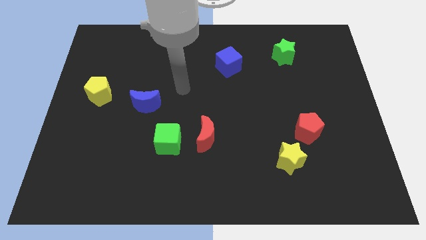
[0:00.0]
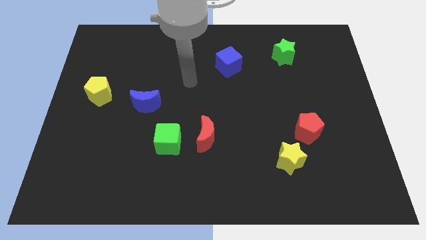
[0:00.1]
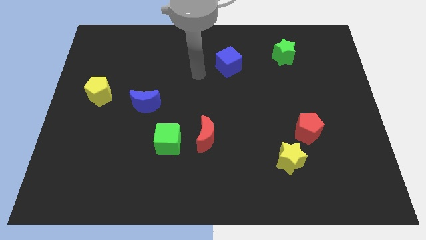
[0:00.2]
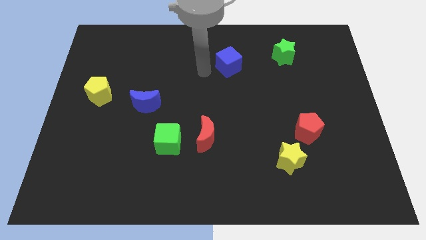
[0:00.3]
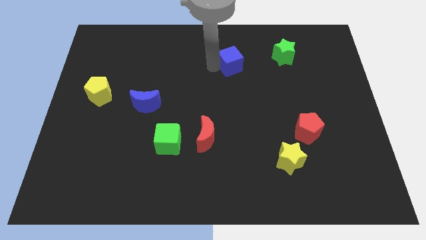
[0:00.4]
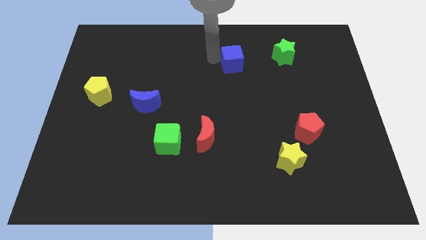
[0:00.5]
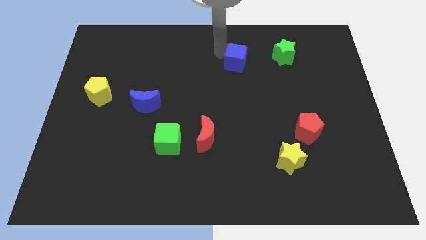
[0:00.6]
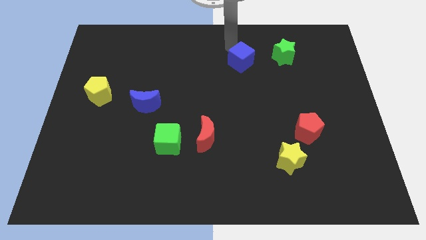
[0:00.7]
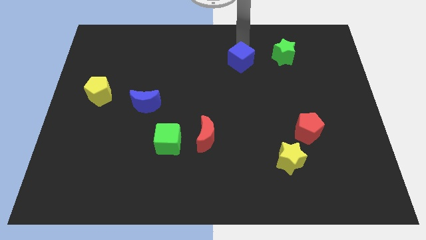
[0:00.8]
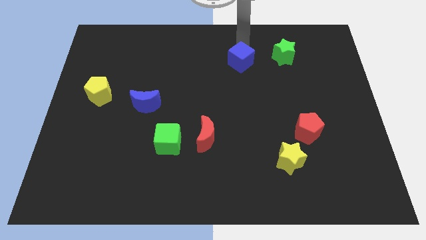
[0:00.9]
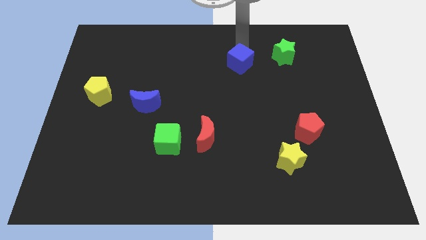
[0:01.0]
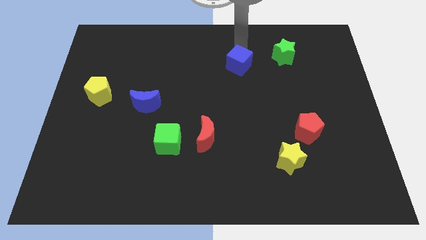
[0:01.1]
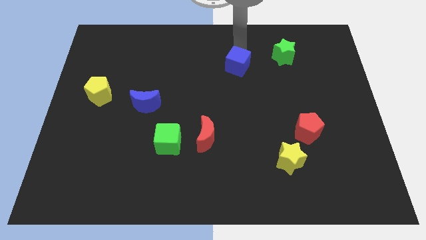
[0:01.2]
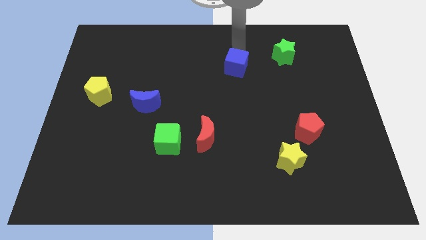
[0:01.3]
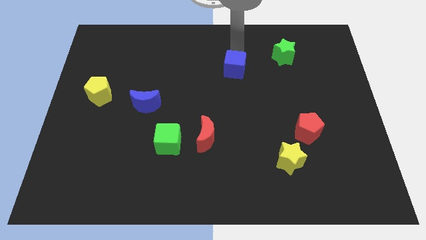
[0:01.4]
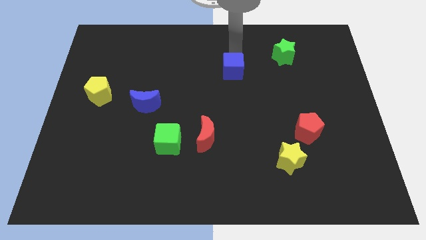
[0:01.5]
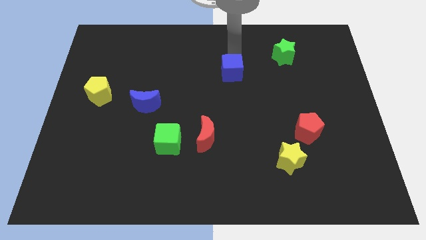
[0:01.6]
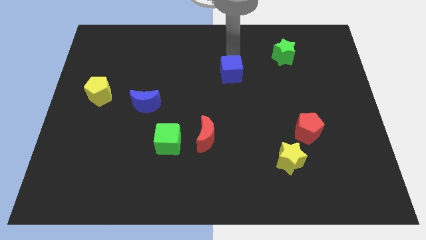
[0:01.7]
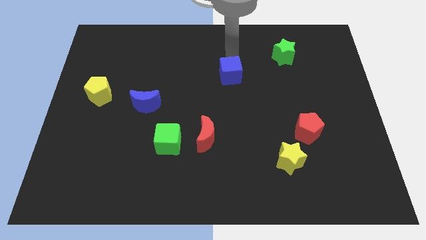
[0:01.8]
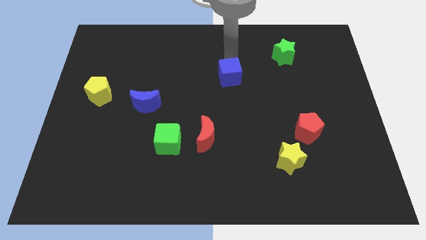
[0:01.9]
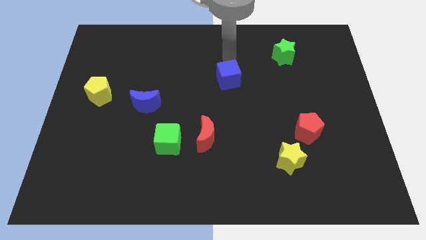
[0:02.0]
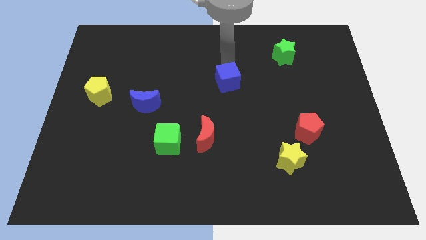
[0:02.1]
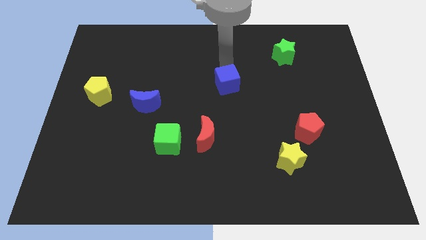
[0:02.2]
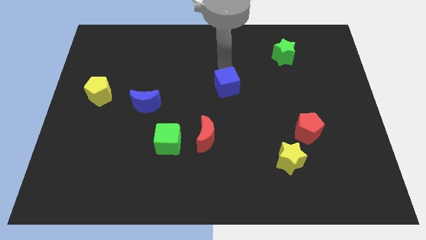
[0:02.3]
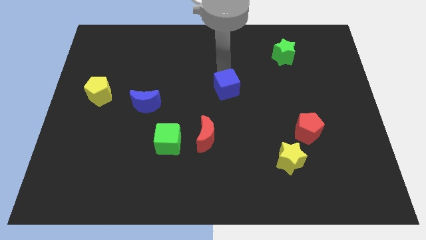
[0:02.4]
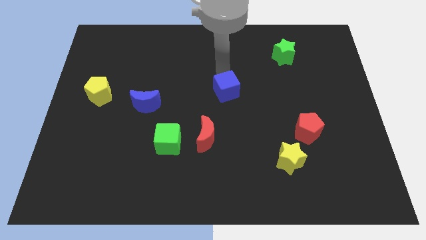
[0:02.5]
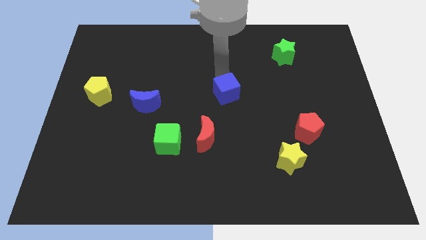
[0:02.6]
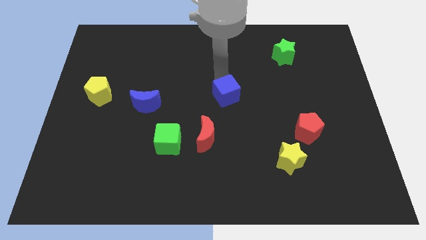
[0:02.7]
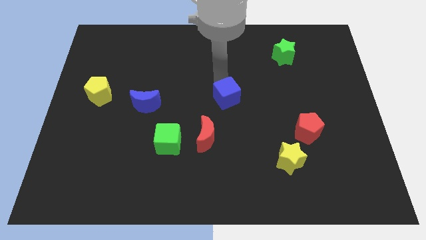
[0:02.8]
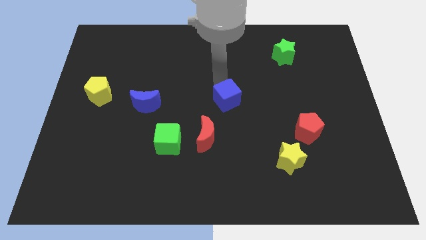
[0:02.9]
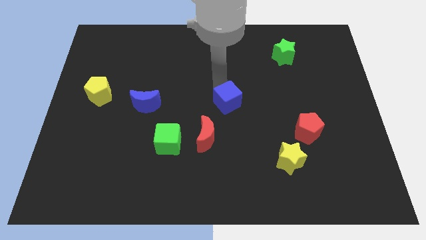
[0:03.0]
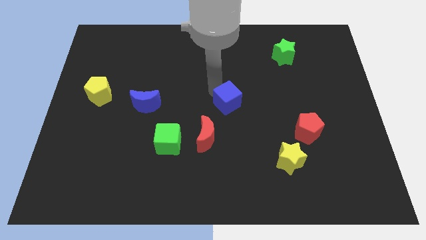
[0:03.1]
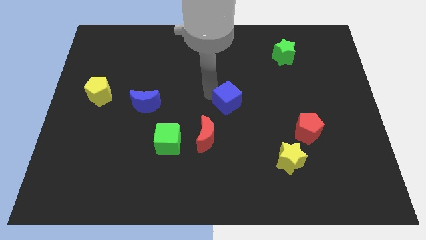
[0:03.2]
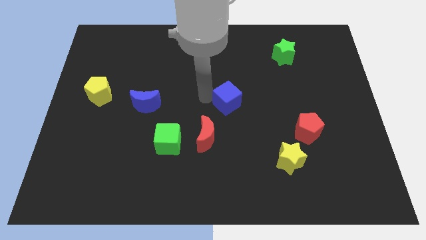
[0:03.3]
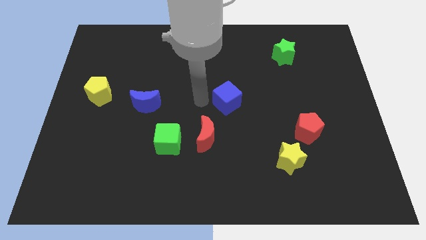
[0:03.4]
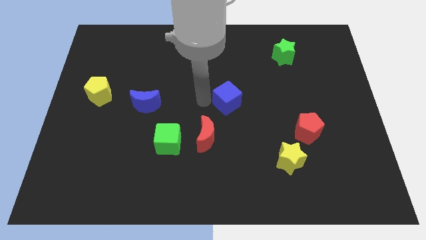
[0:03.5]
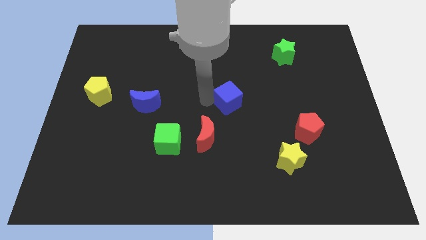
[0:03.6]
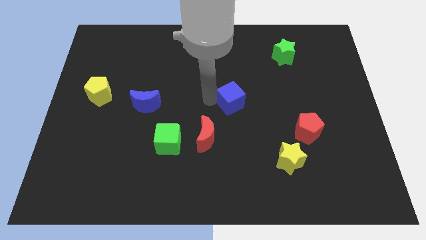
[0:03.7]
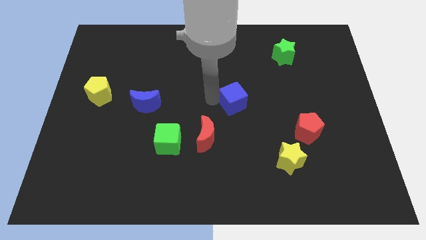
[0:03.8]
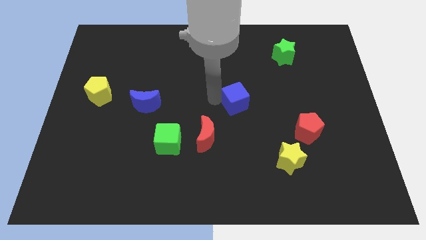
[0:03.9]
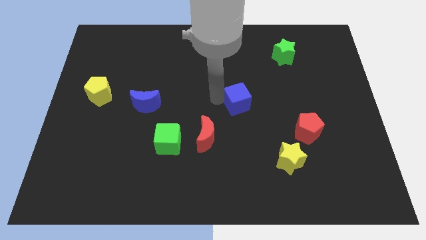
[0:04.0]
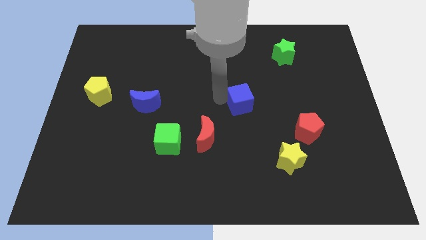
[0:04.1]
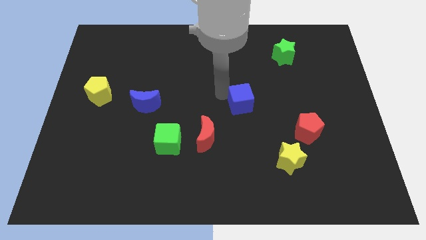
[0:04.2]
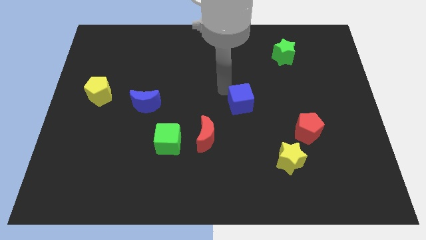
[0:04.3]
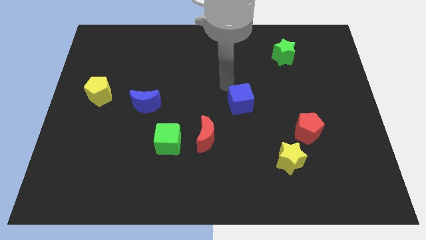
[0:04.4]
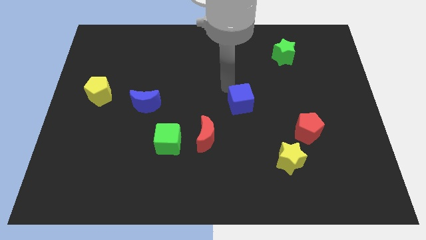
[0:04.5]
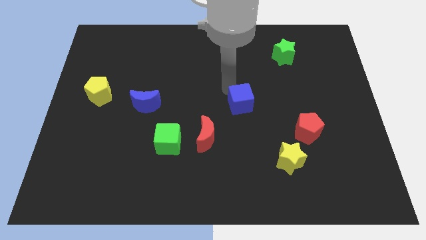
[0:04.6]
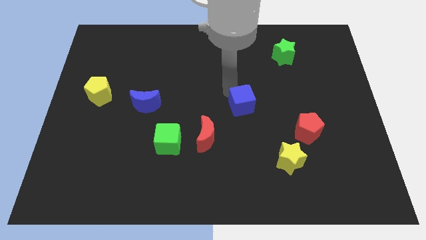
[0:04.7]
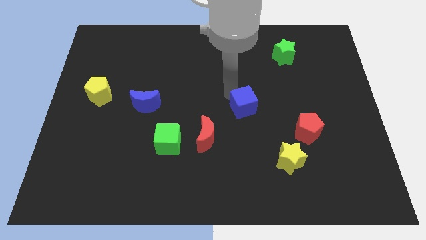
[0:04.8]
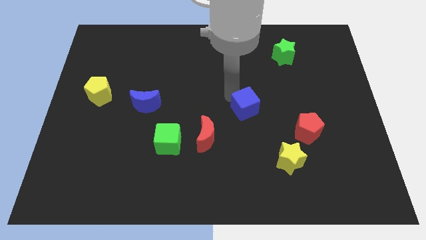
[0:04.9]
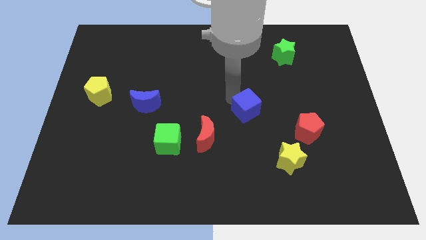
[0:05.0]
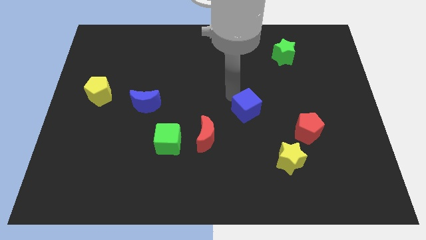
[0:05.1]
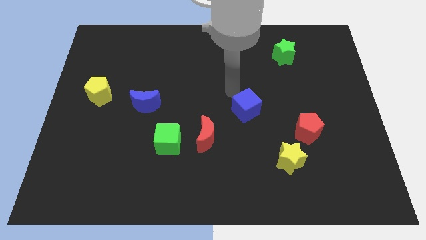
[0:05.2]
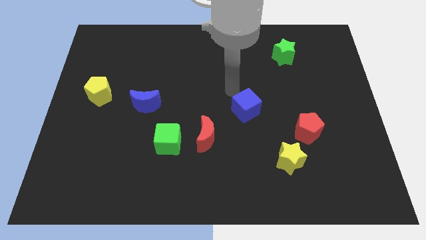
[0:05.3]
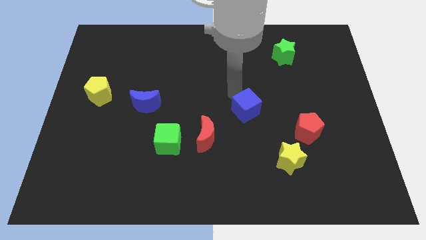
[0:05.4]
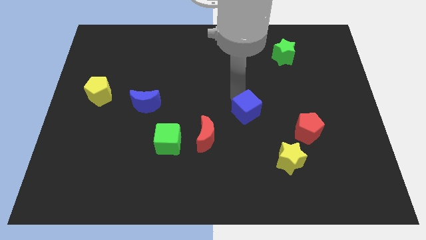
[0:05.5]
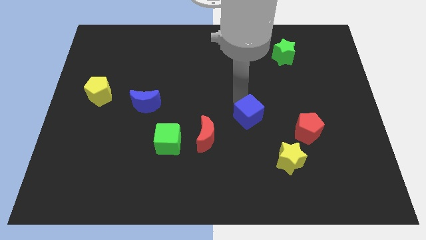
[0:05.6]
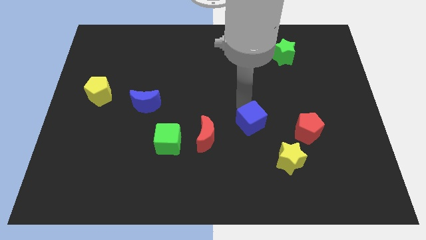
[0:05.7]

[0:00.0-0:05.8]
slide the blue cube diagonally up and to the left of the yellow star

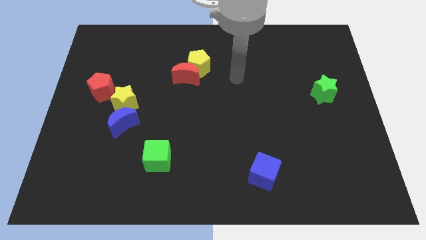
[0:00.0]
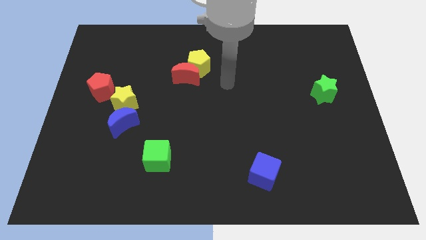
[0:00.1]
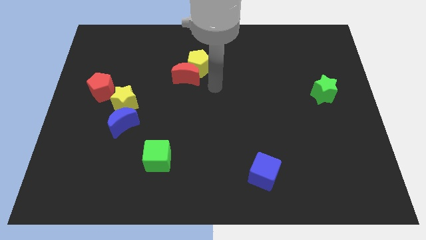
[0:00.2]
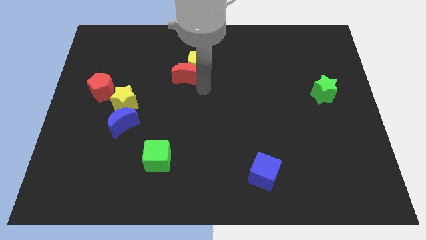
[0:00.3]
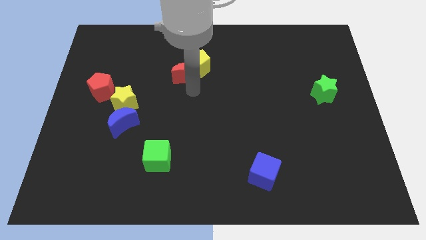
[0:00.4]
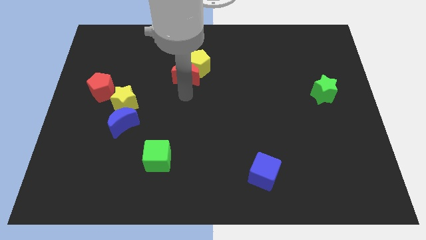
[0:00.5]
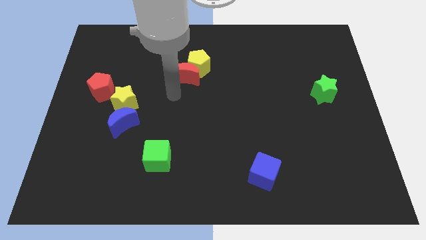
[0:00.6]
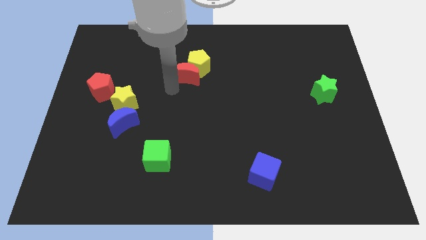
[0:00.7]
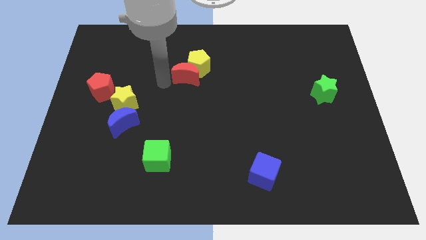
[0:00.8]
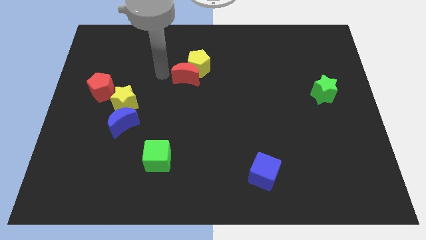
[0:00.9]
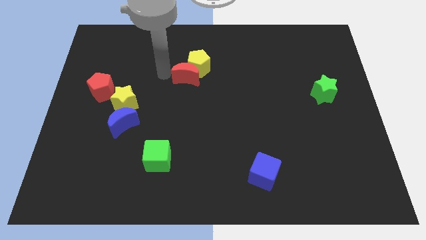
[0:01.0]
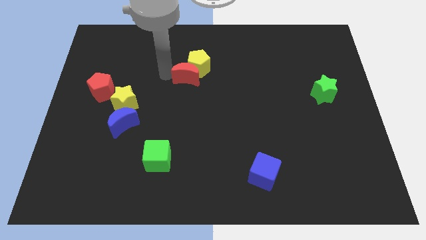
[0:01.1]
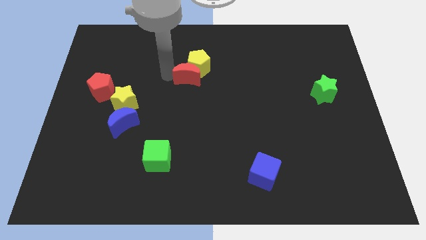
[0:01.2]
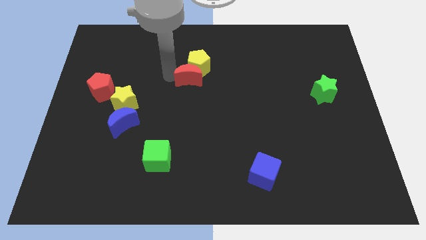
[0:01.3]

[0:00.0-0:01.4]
slide the red moon to the bottom right side of the yellow pentagon
